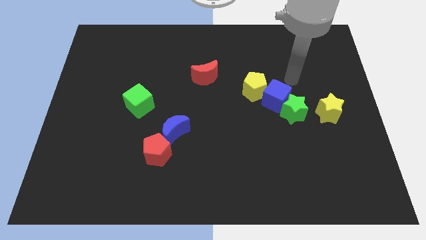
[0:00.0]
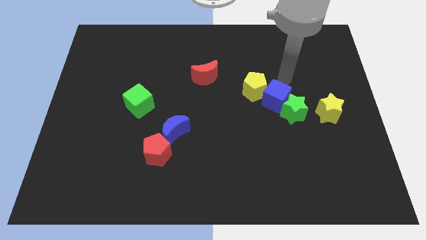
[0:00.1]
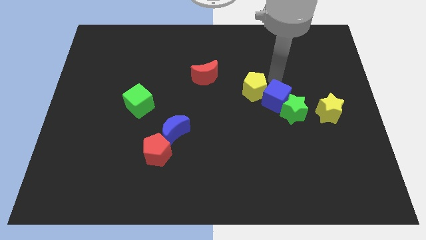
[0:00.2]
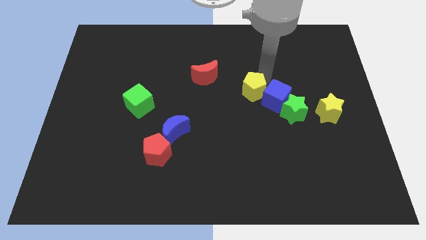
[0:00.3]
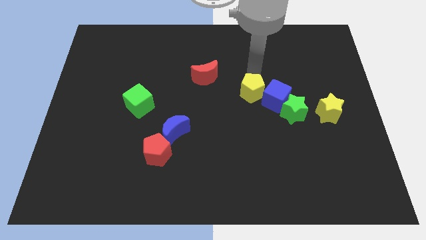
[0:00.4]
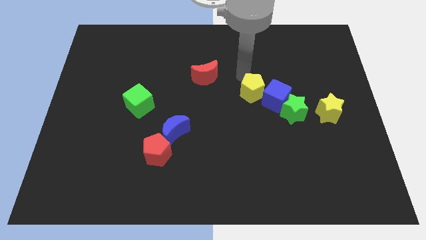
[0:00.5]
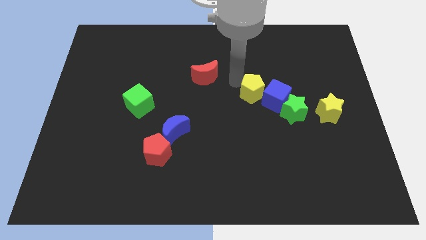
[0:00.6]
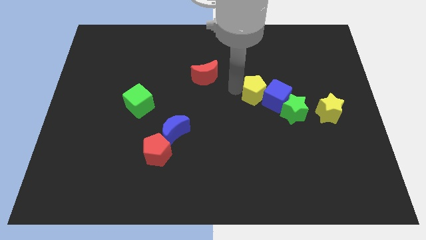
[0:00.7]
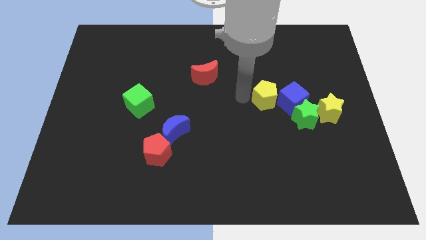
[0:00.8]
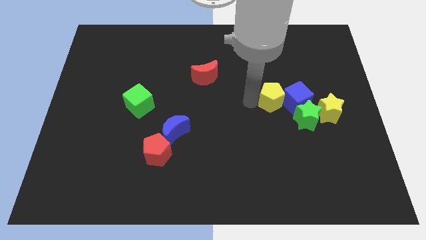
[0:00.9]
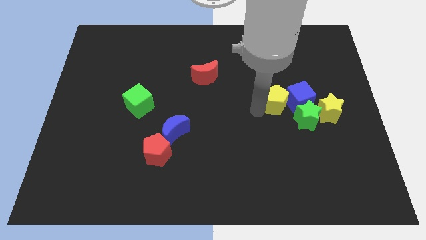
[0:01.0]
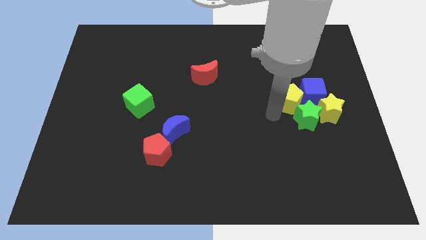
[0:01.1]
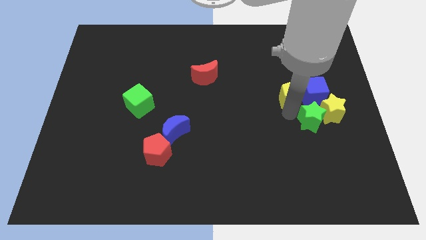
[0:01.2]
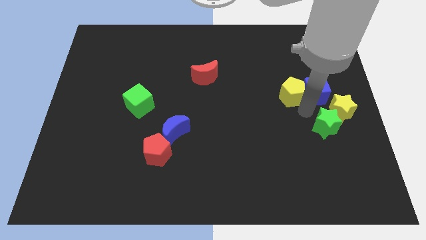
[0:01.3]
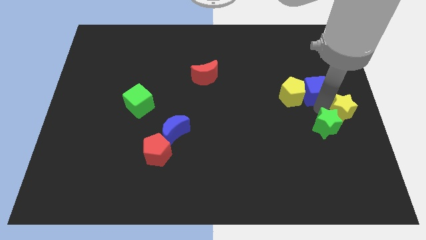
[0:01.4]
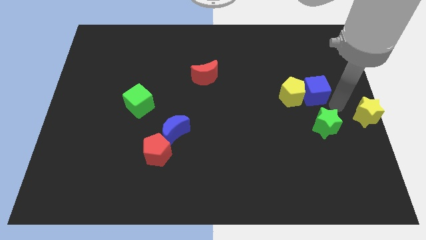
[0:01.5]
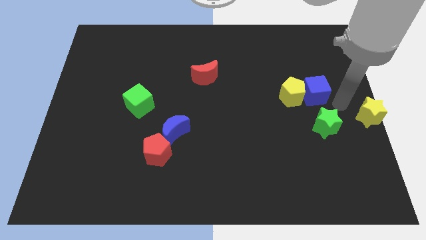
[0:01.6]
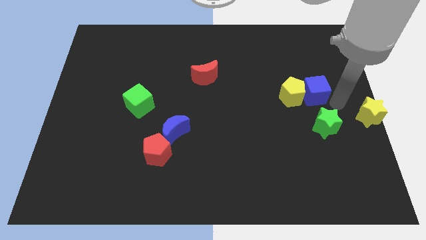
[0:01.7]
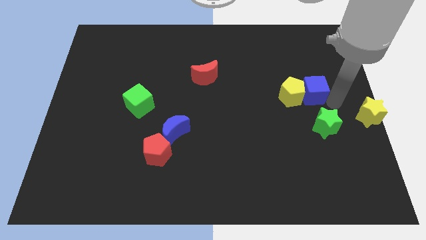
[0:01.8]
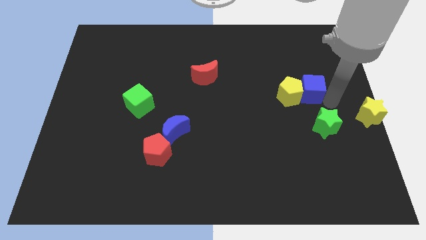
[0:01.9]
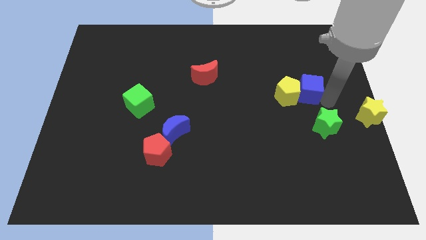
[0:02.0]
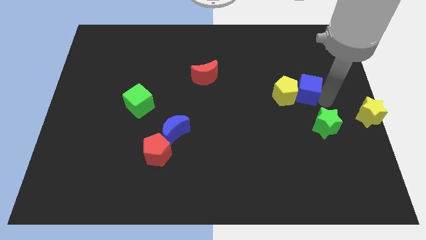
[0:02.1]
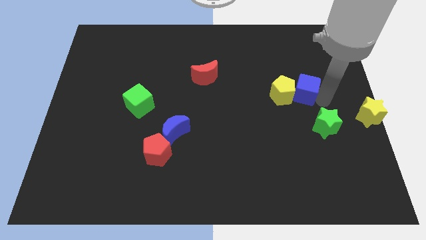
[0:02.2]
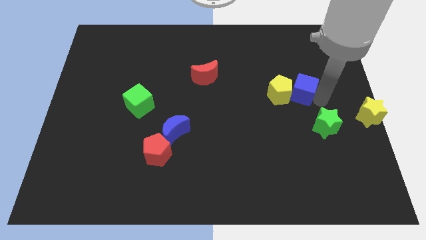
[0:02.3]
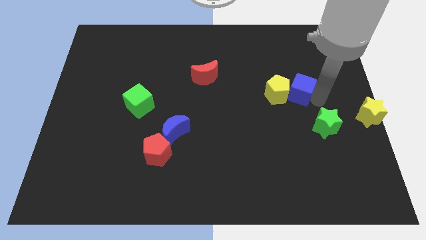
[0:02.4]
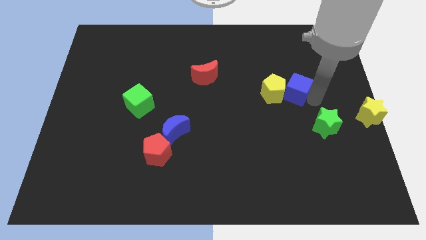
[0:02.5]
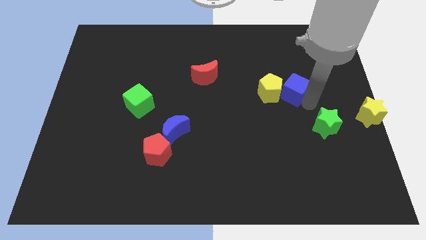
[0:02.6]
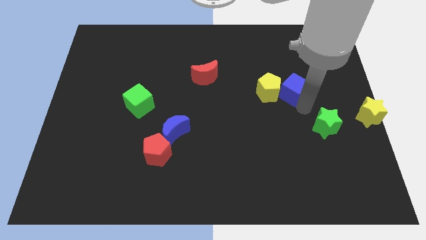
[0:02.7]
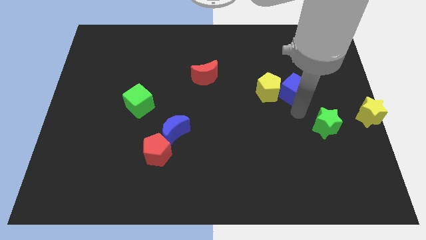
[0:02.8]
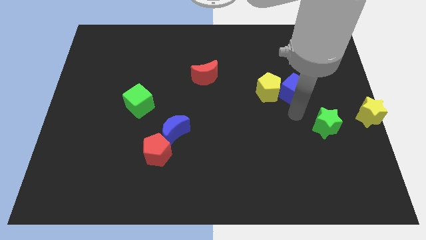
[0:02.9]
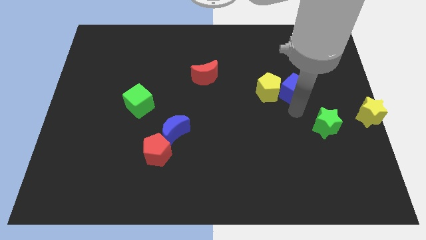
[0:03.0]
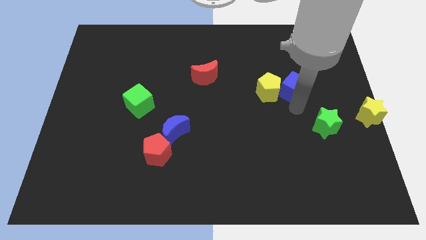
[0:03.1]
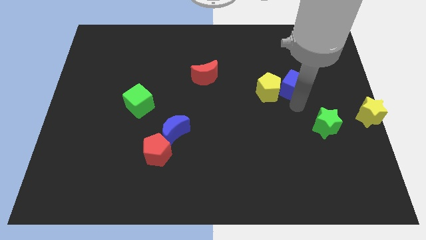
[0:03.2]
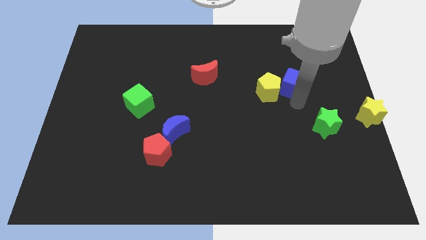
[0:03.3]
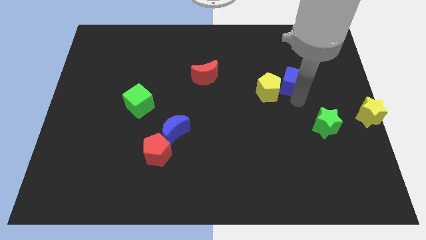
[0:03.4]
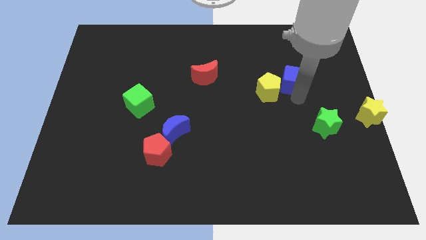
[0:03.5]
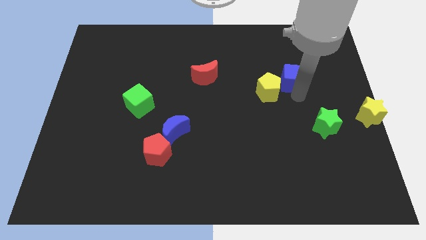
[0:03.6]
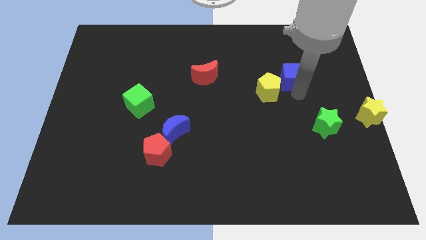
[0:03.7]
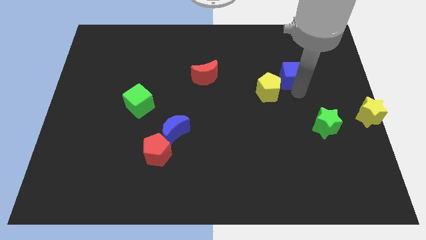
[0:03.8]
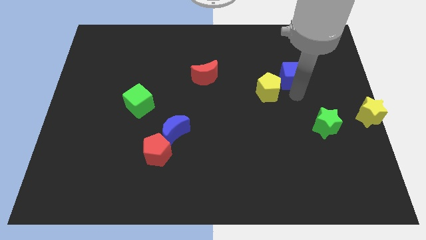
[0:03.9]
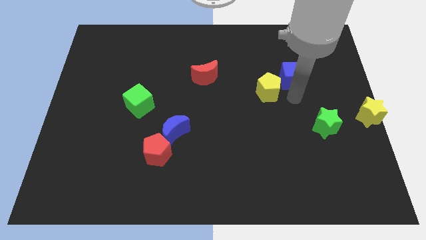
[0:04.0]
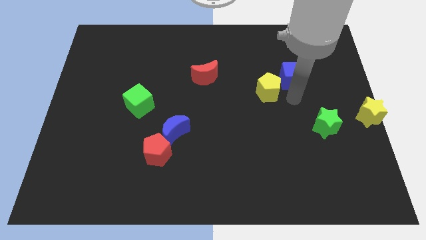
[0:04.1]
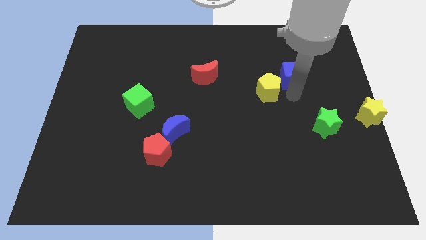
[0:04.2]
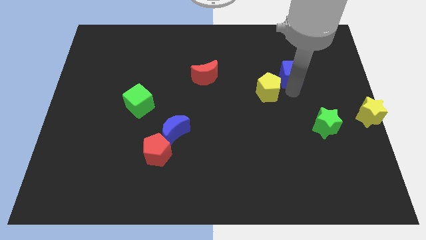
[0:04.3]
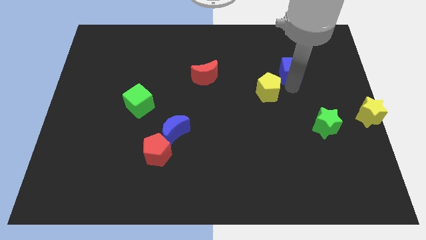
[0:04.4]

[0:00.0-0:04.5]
pull the blue cube apart from the green star and yellow pentagon

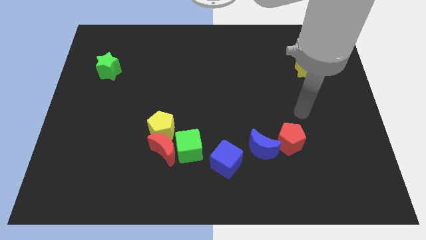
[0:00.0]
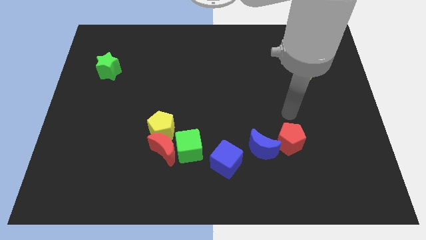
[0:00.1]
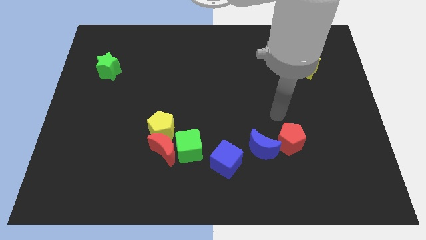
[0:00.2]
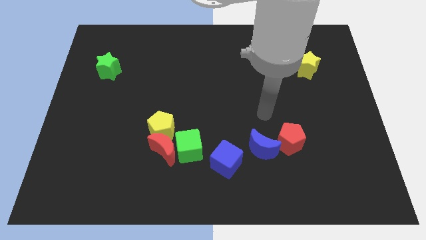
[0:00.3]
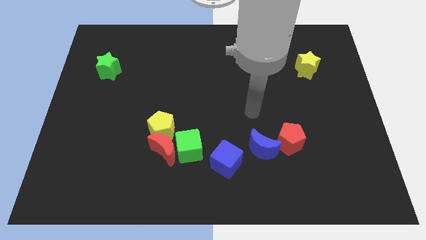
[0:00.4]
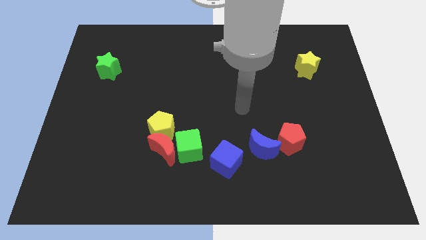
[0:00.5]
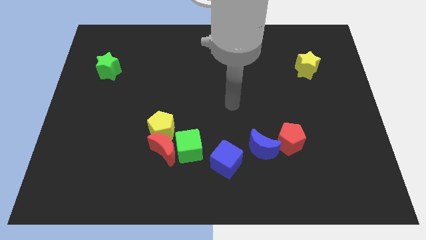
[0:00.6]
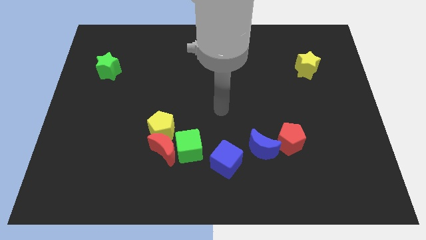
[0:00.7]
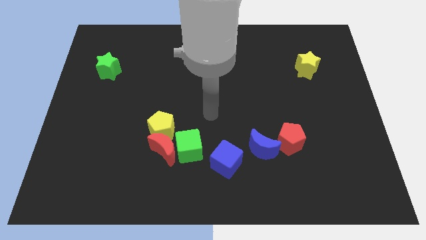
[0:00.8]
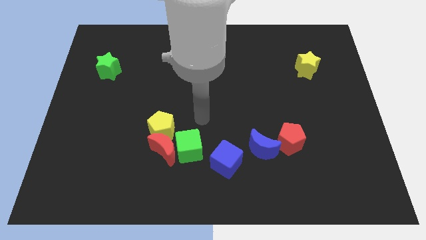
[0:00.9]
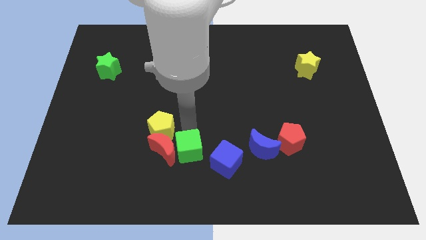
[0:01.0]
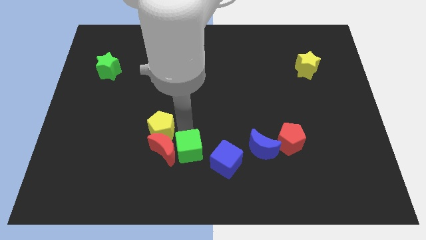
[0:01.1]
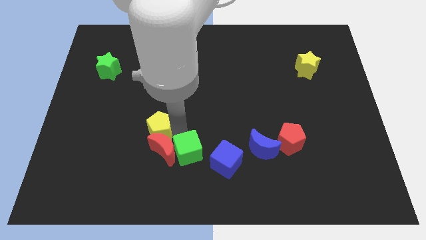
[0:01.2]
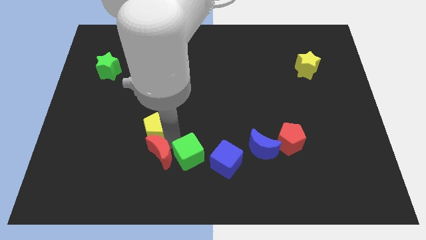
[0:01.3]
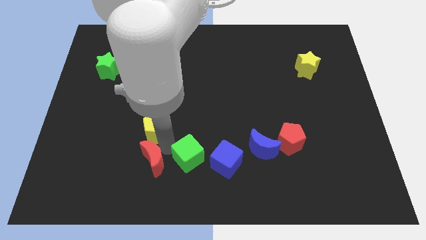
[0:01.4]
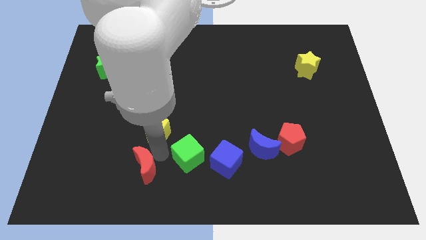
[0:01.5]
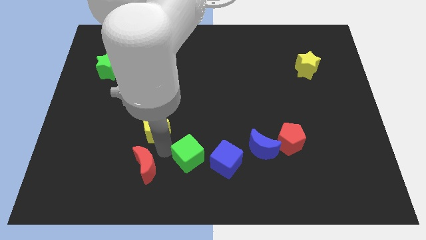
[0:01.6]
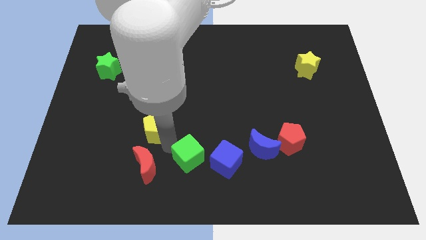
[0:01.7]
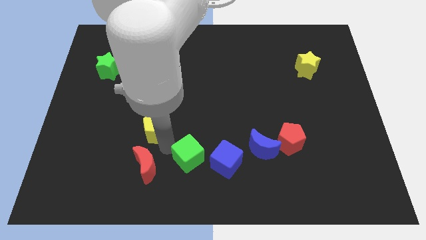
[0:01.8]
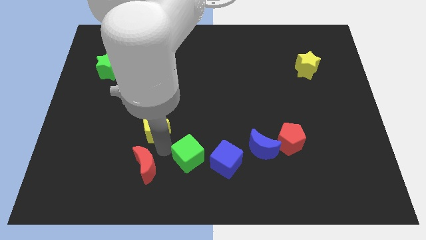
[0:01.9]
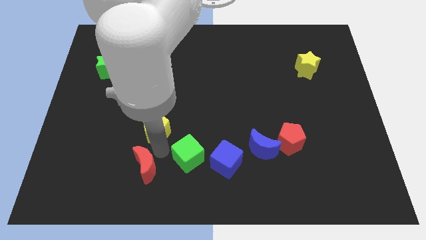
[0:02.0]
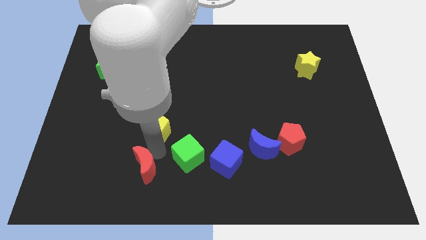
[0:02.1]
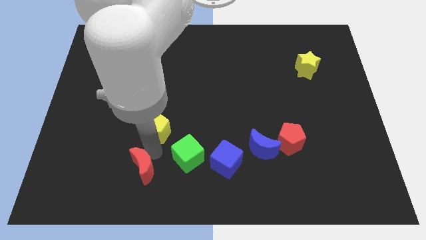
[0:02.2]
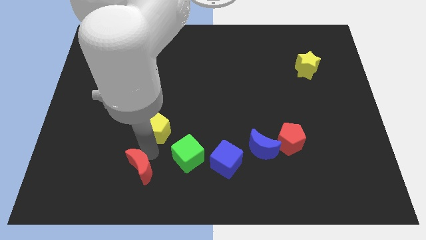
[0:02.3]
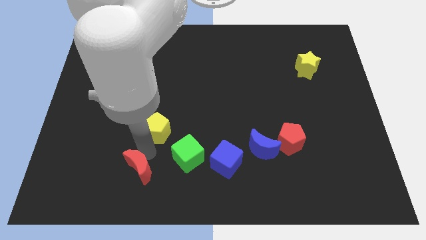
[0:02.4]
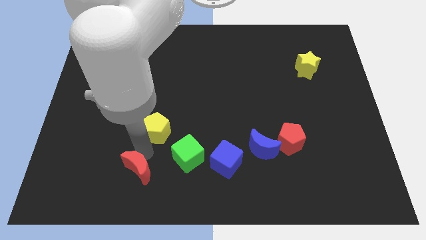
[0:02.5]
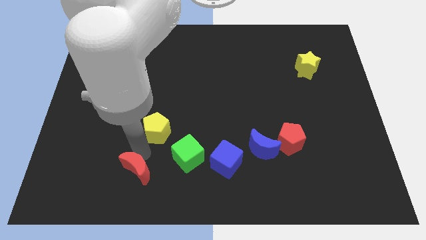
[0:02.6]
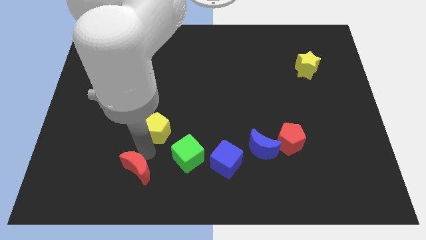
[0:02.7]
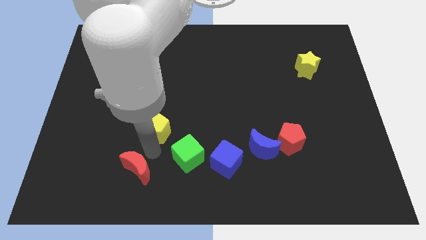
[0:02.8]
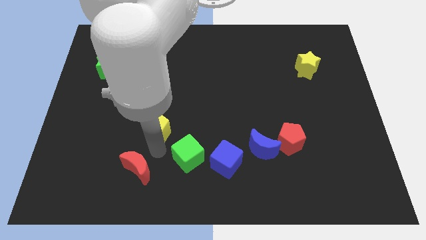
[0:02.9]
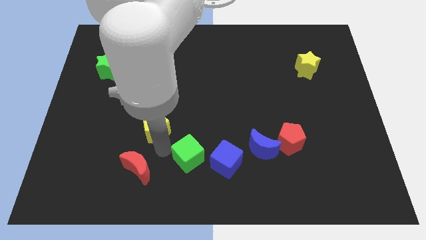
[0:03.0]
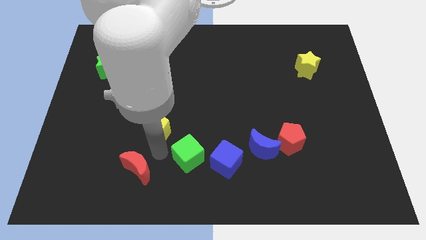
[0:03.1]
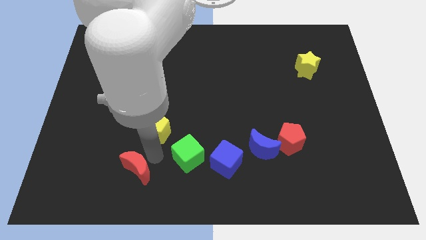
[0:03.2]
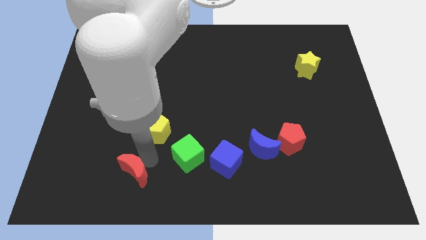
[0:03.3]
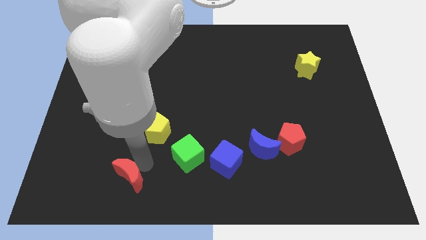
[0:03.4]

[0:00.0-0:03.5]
move the red moon away from the yellow pentagon and green cube

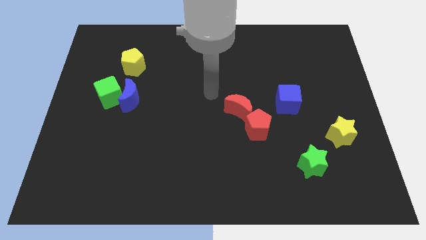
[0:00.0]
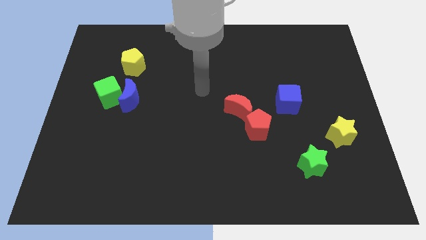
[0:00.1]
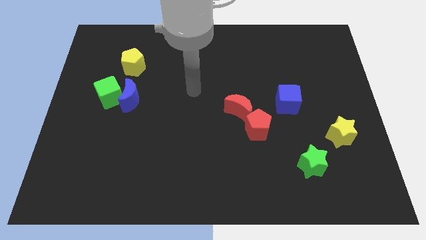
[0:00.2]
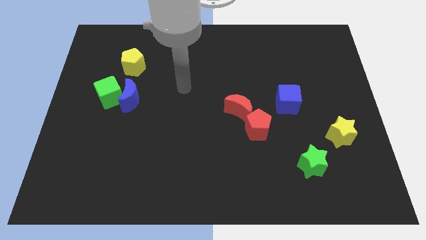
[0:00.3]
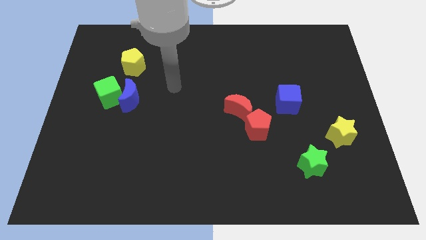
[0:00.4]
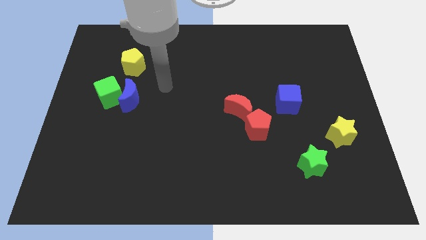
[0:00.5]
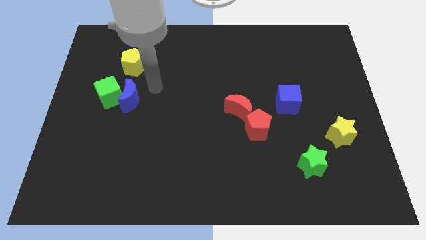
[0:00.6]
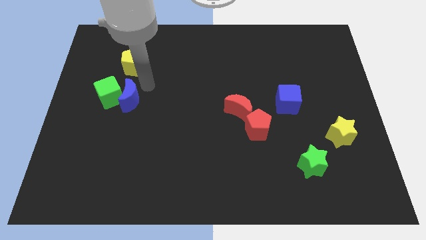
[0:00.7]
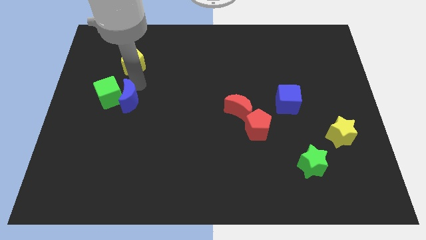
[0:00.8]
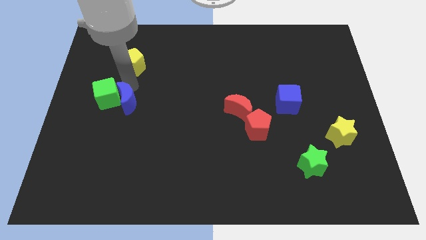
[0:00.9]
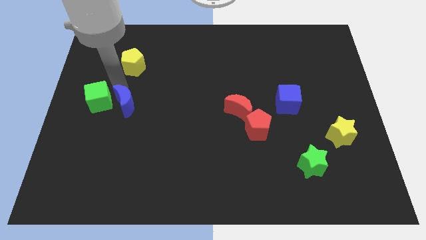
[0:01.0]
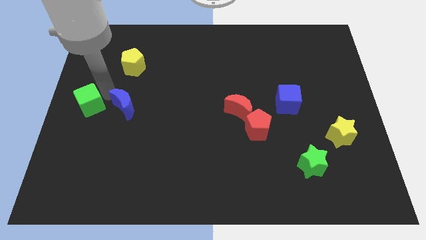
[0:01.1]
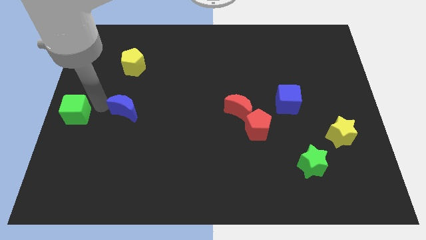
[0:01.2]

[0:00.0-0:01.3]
separate the blue moon from the green cube
